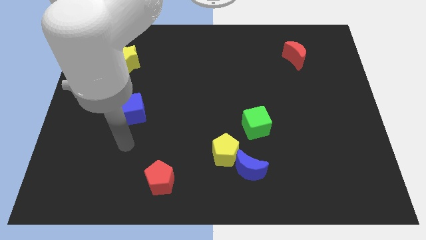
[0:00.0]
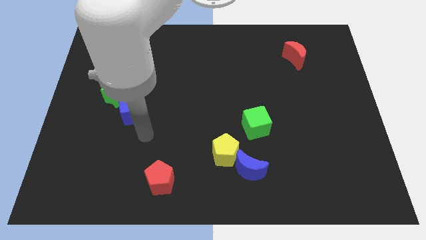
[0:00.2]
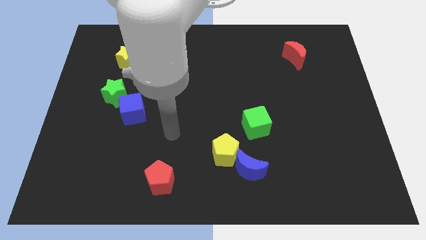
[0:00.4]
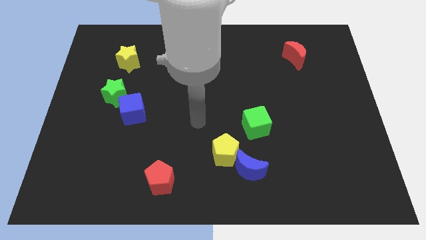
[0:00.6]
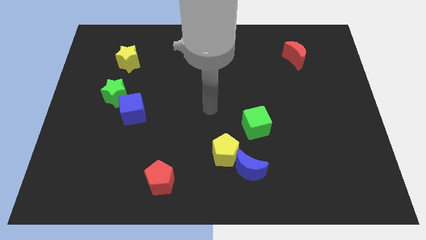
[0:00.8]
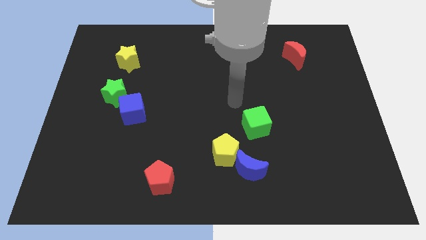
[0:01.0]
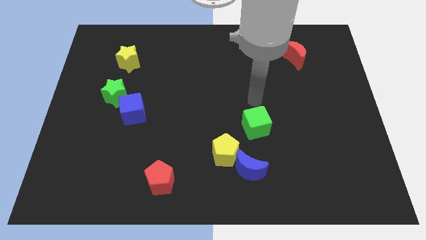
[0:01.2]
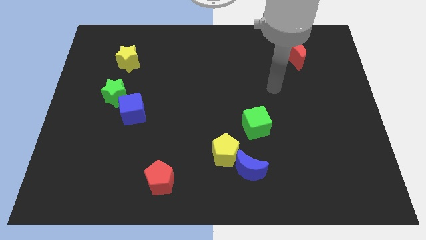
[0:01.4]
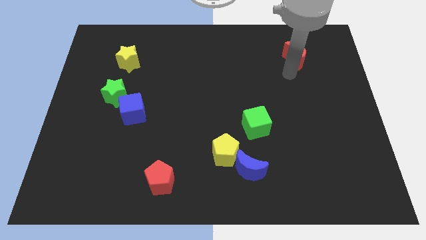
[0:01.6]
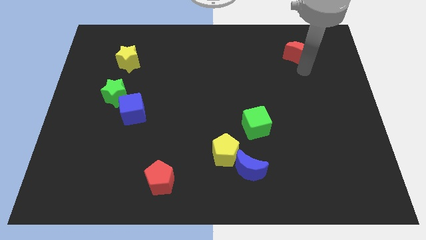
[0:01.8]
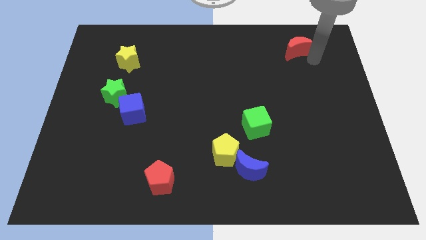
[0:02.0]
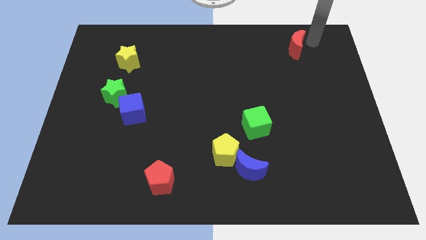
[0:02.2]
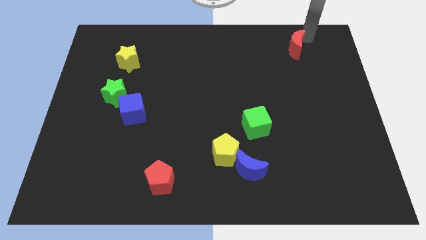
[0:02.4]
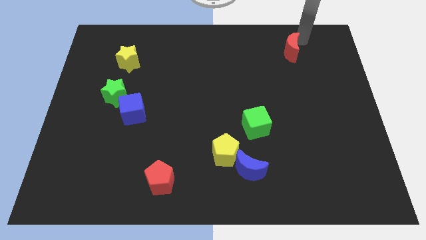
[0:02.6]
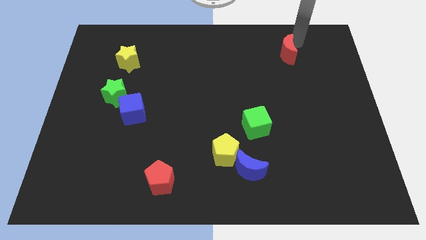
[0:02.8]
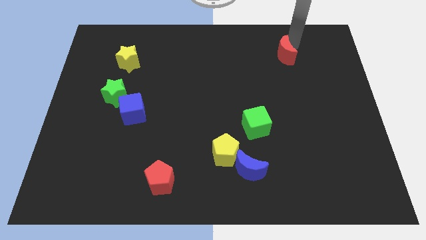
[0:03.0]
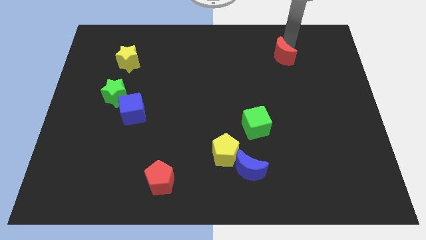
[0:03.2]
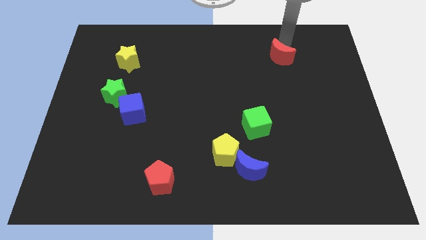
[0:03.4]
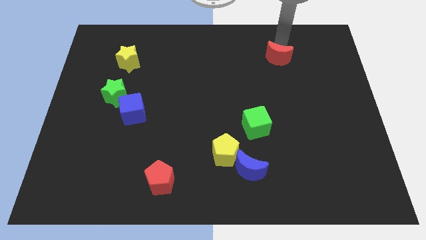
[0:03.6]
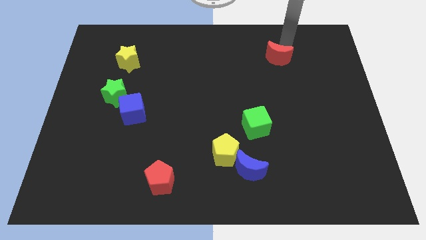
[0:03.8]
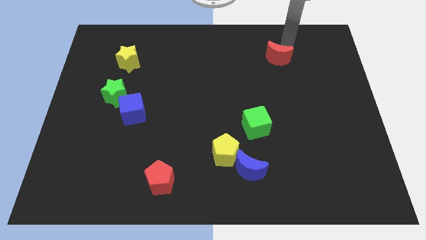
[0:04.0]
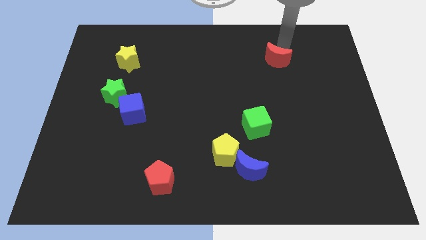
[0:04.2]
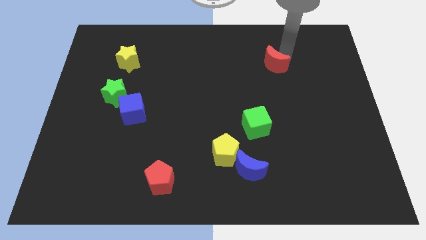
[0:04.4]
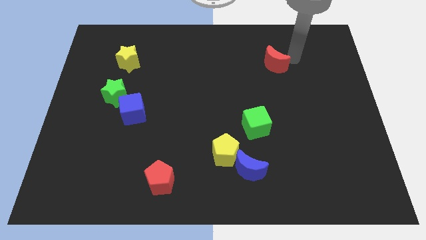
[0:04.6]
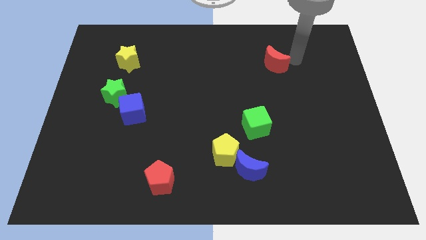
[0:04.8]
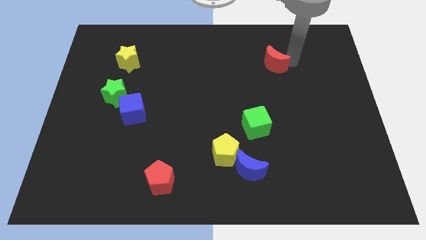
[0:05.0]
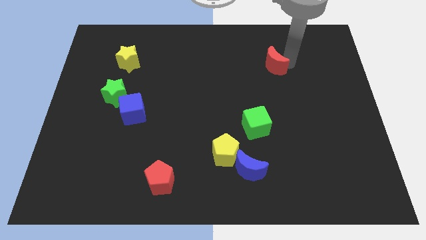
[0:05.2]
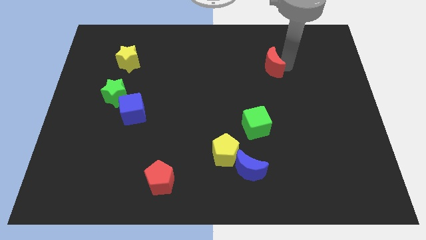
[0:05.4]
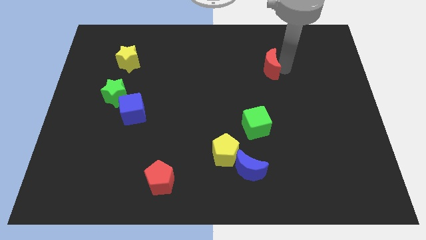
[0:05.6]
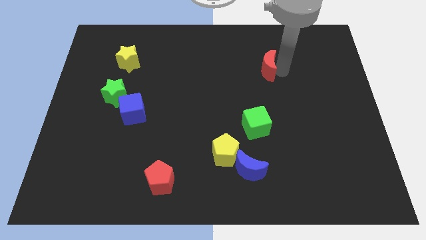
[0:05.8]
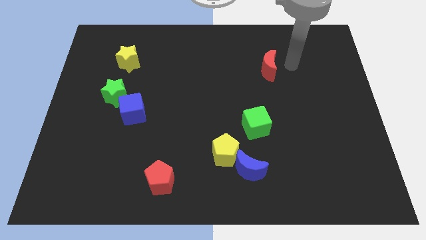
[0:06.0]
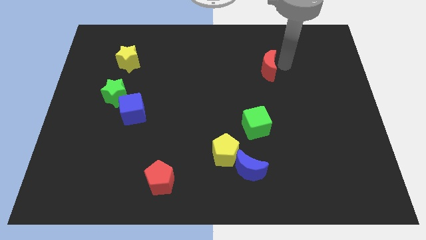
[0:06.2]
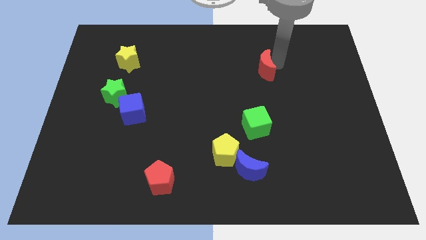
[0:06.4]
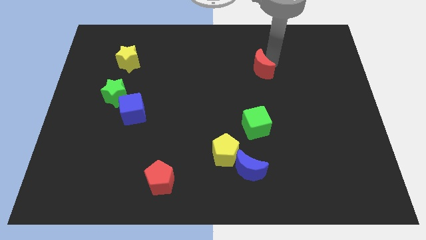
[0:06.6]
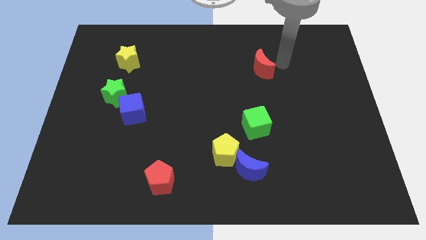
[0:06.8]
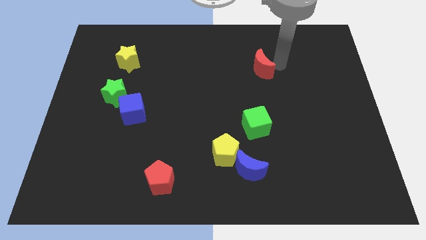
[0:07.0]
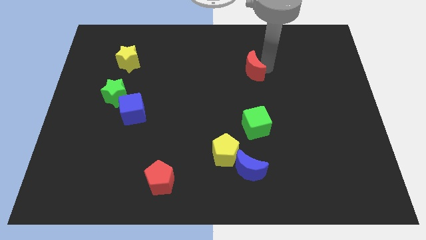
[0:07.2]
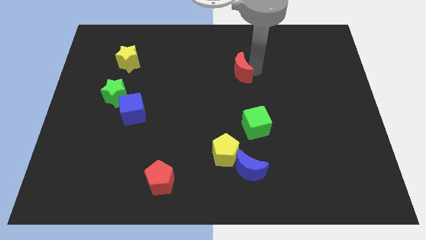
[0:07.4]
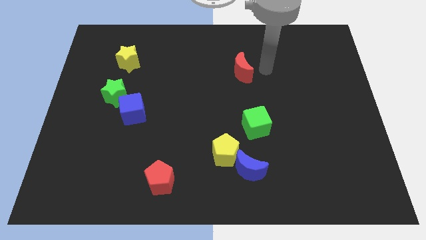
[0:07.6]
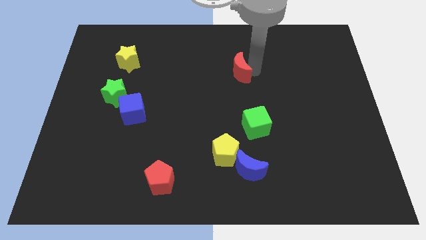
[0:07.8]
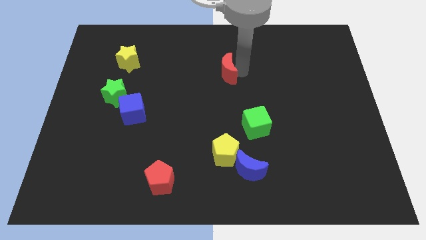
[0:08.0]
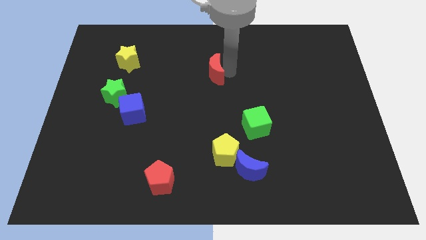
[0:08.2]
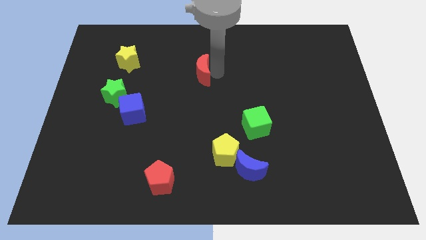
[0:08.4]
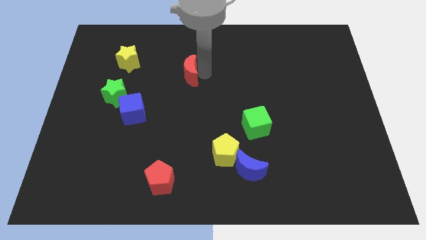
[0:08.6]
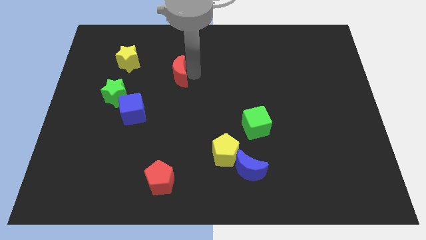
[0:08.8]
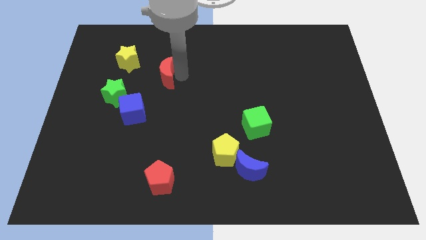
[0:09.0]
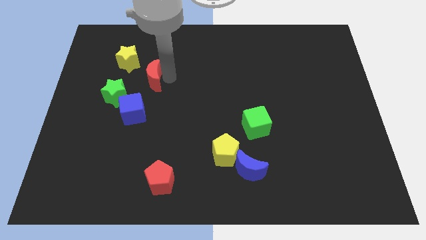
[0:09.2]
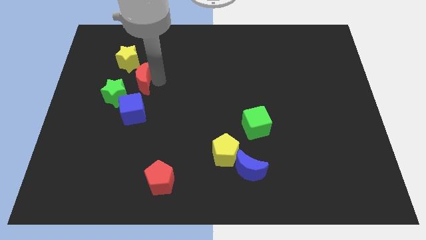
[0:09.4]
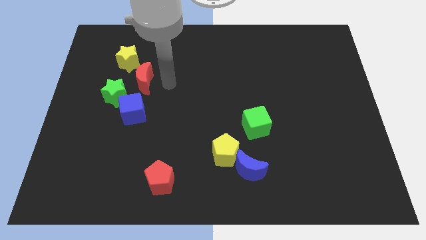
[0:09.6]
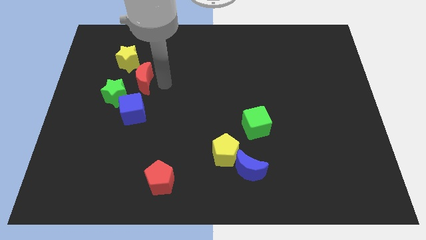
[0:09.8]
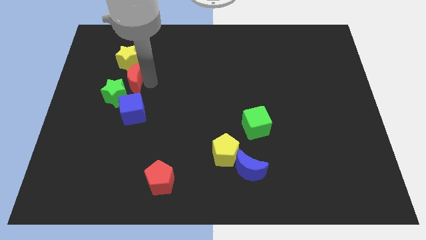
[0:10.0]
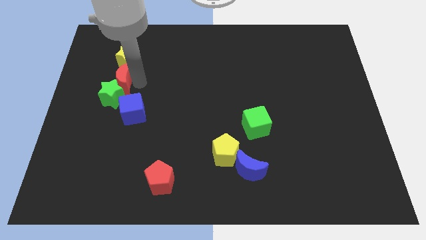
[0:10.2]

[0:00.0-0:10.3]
push the red moon to the top left side of the blue cube

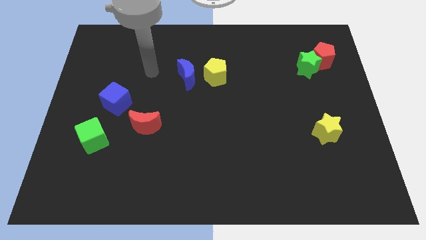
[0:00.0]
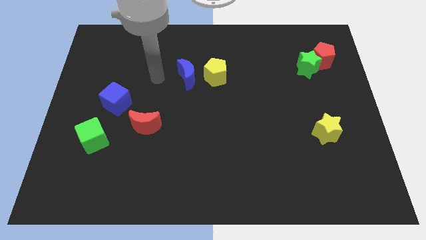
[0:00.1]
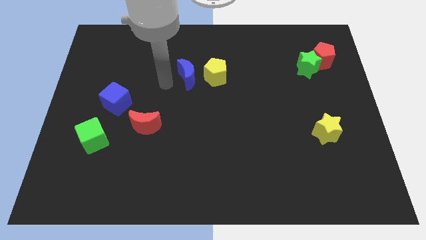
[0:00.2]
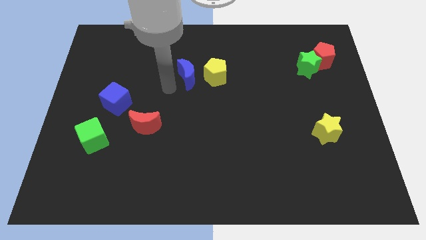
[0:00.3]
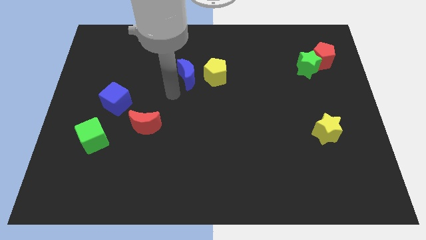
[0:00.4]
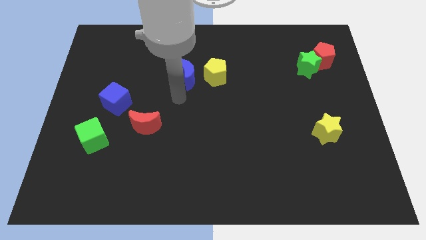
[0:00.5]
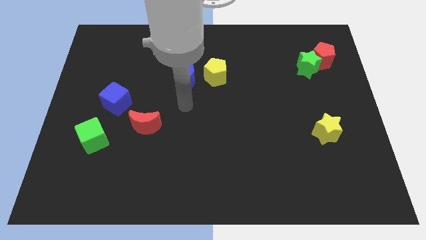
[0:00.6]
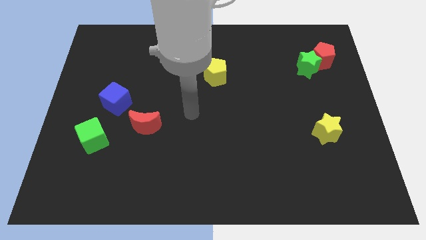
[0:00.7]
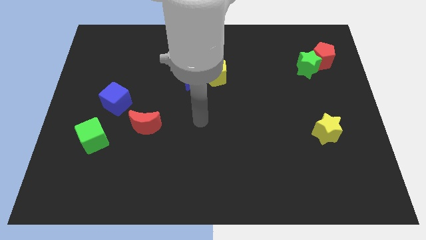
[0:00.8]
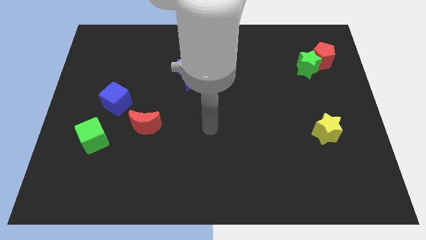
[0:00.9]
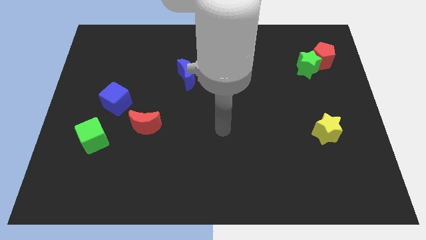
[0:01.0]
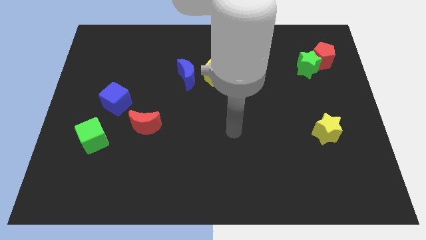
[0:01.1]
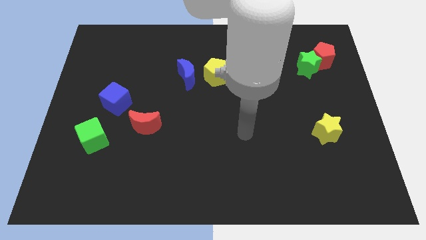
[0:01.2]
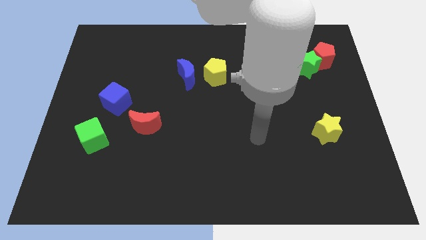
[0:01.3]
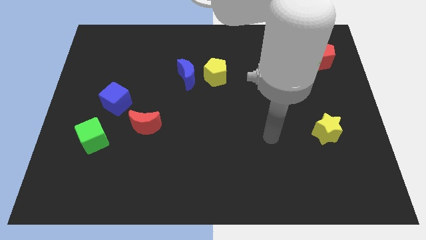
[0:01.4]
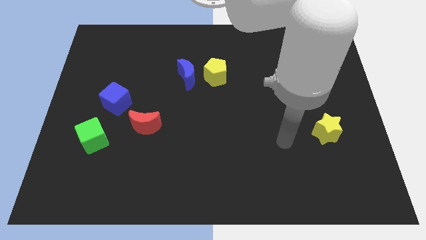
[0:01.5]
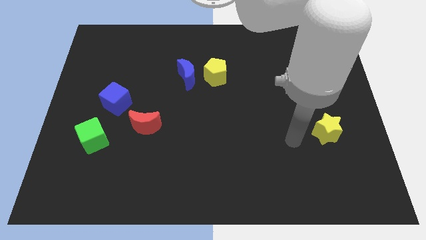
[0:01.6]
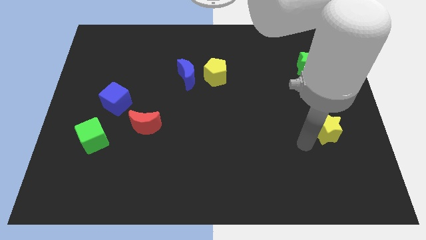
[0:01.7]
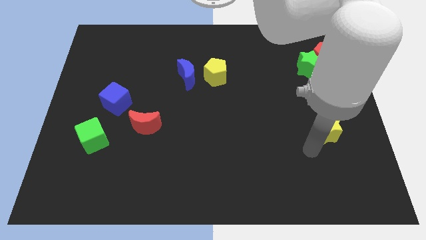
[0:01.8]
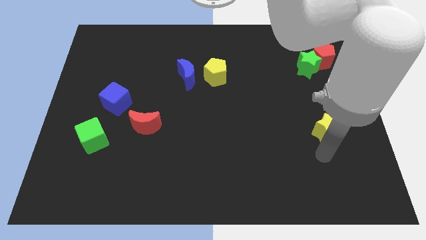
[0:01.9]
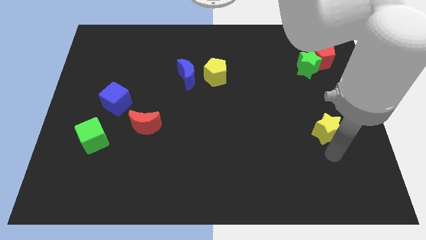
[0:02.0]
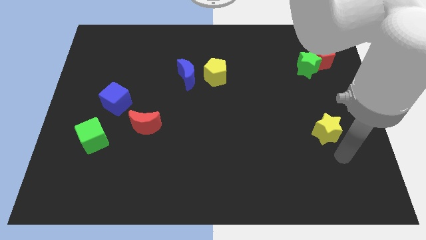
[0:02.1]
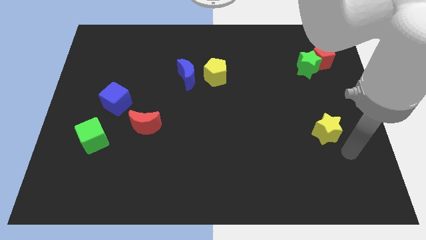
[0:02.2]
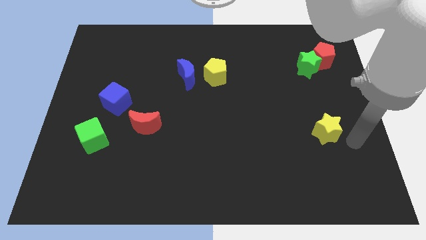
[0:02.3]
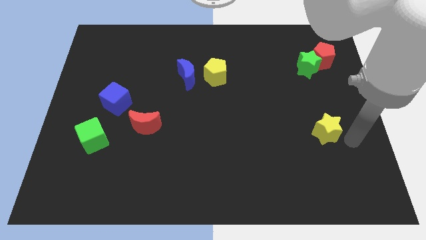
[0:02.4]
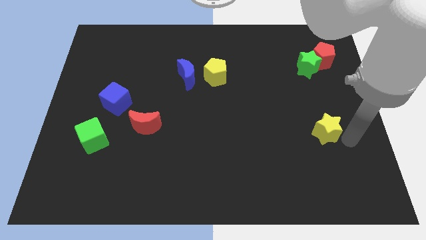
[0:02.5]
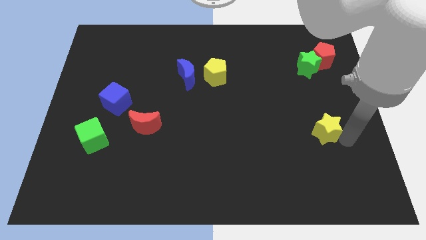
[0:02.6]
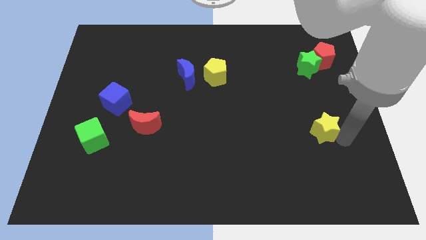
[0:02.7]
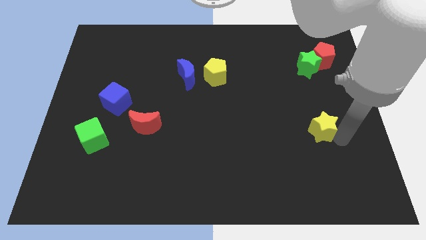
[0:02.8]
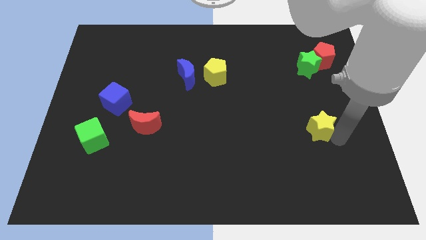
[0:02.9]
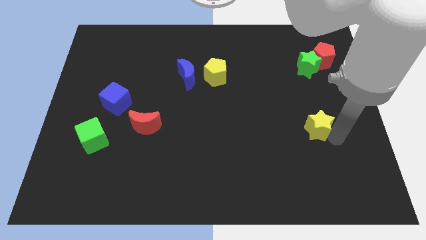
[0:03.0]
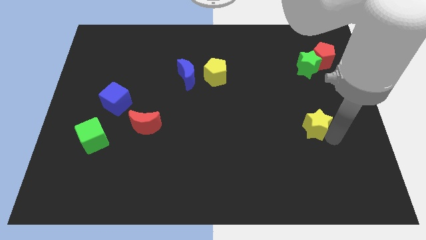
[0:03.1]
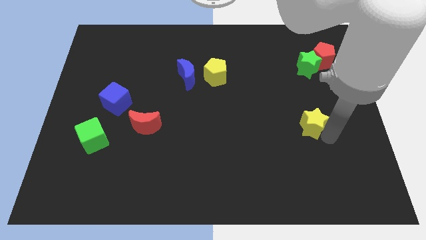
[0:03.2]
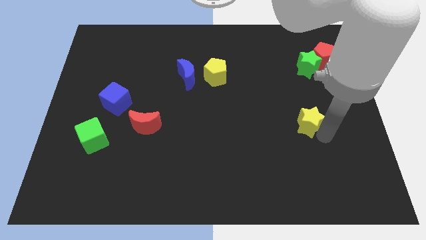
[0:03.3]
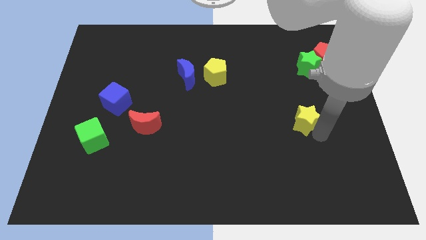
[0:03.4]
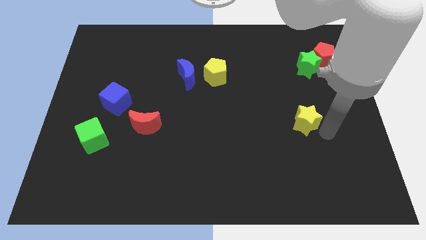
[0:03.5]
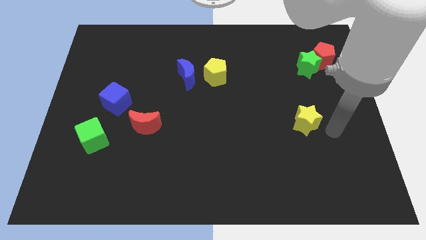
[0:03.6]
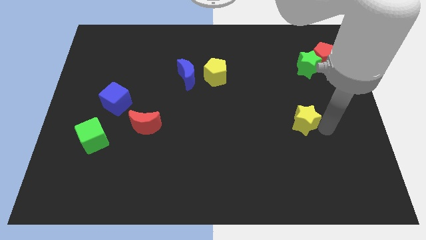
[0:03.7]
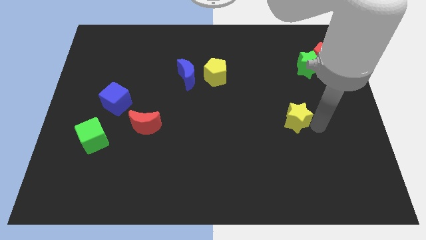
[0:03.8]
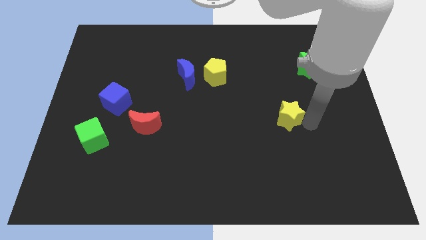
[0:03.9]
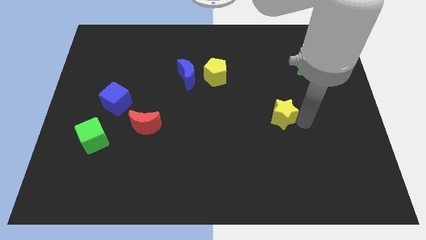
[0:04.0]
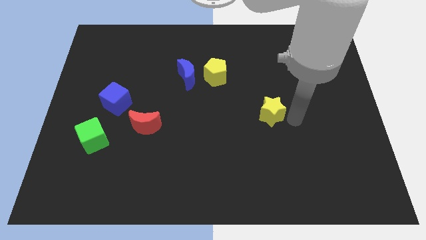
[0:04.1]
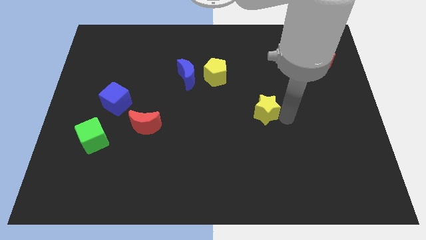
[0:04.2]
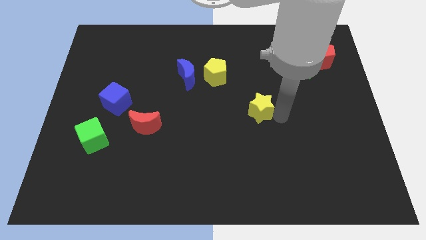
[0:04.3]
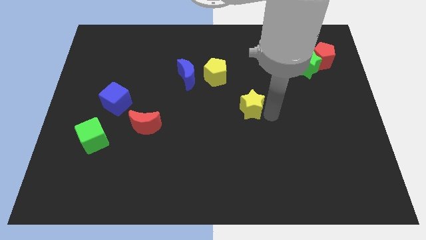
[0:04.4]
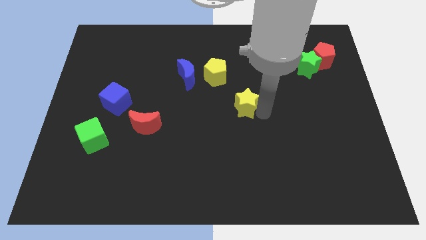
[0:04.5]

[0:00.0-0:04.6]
move the yellow star diagonally down and to the right of the yellow pentagon
